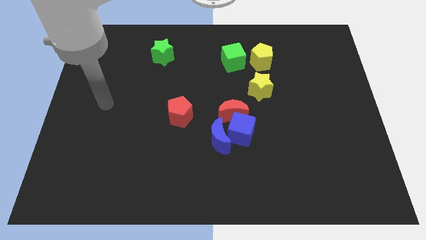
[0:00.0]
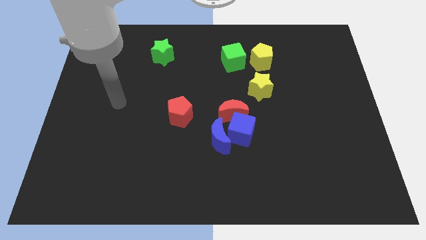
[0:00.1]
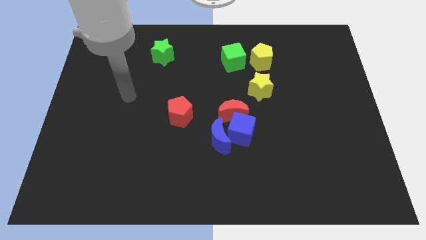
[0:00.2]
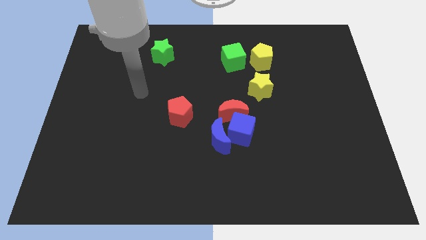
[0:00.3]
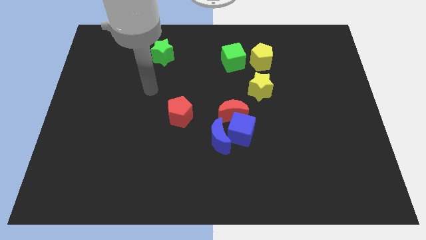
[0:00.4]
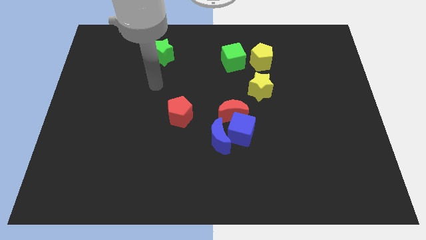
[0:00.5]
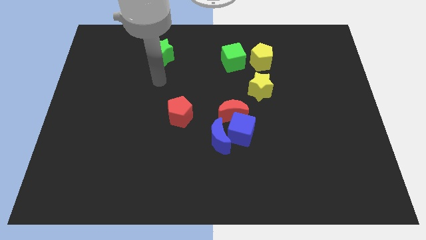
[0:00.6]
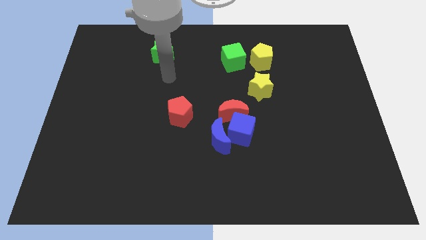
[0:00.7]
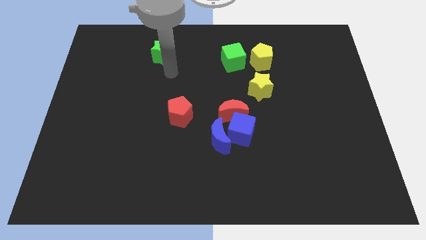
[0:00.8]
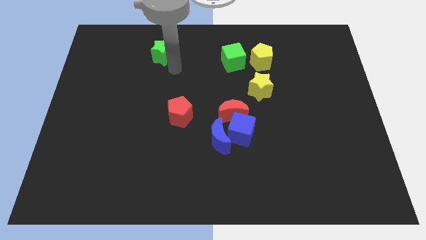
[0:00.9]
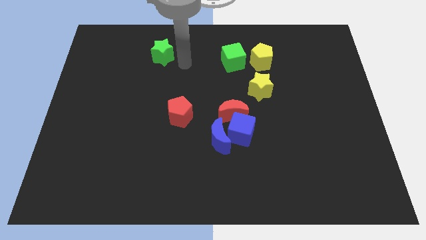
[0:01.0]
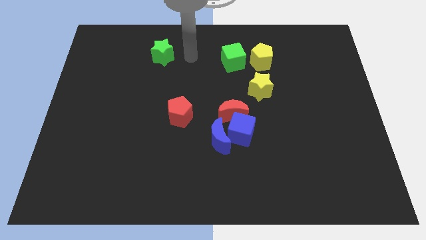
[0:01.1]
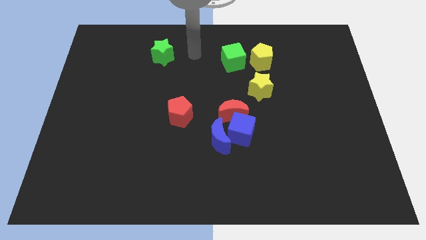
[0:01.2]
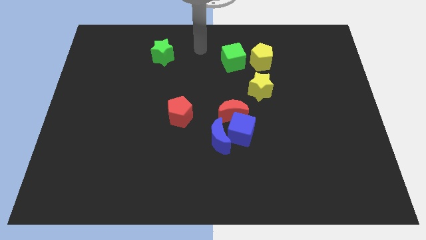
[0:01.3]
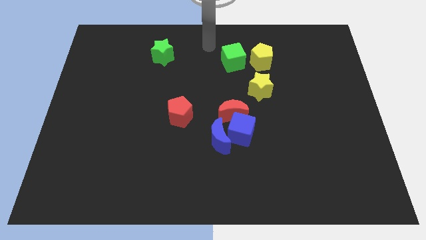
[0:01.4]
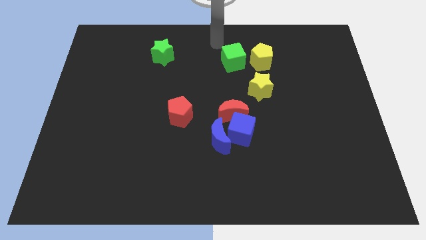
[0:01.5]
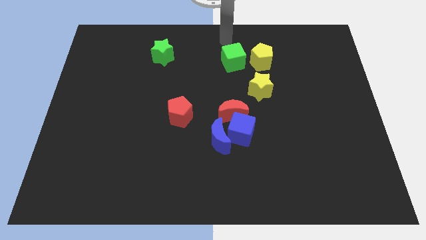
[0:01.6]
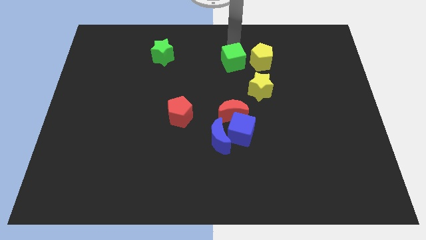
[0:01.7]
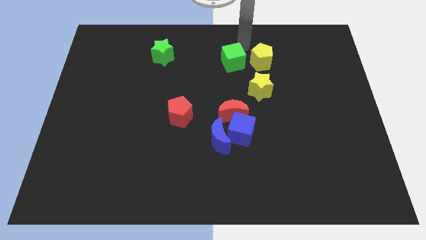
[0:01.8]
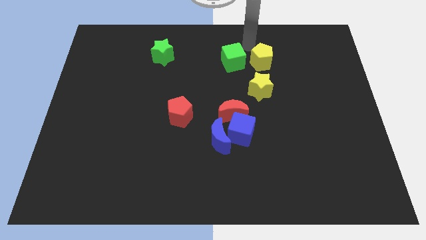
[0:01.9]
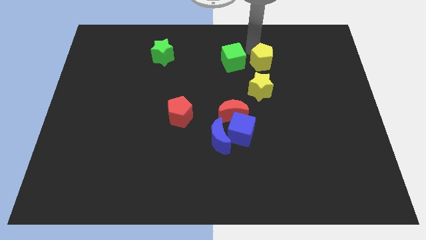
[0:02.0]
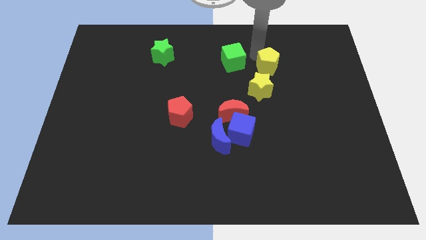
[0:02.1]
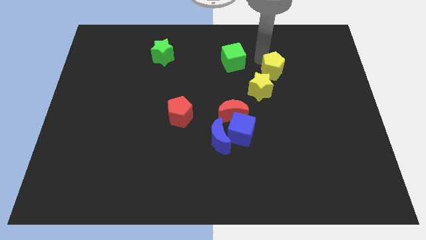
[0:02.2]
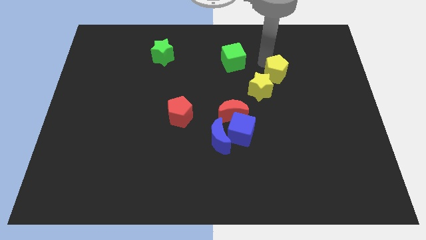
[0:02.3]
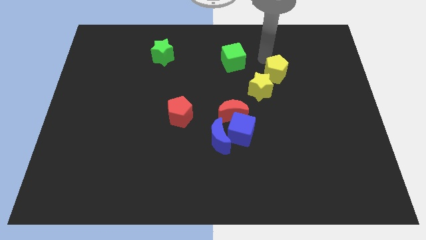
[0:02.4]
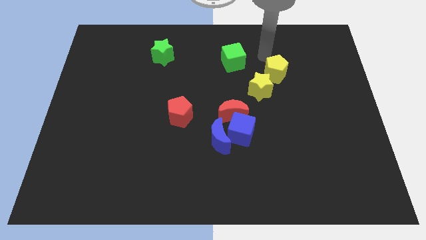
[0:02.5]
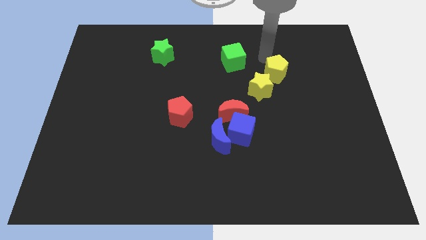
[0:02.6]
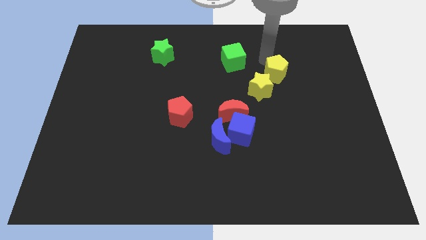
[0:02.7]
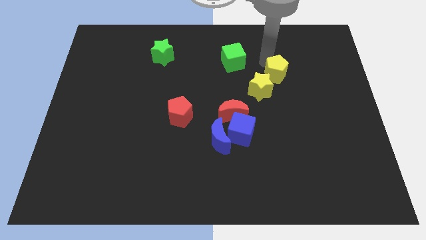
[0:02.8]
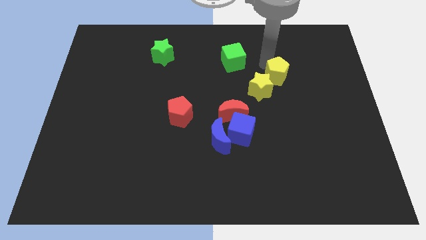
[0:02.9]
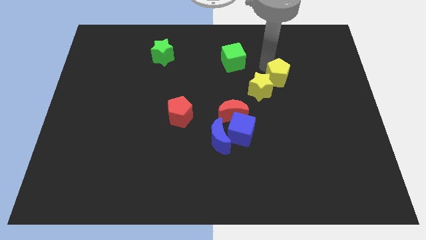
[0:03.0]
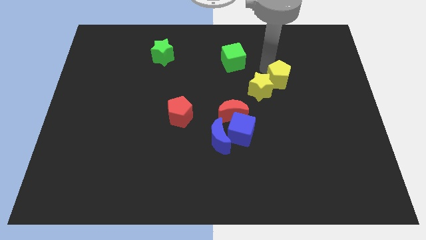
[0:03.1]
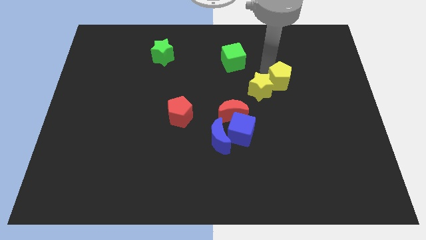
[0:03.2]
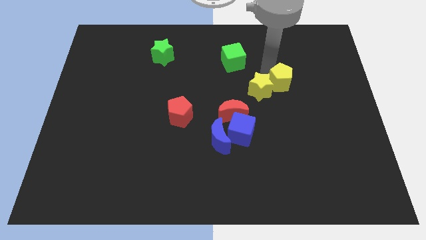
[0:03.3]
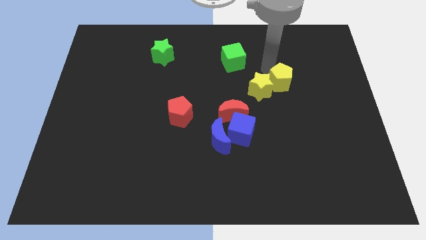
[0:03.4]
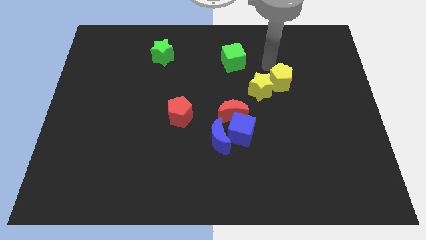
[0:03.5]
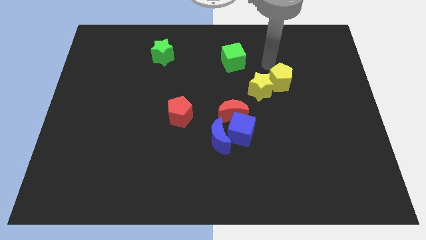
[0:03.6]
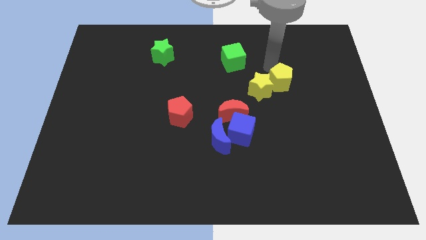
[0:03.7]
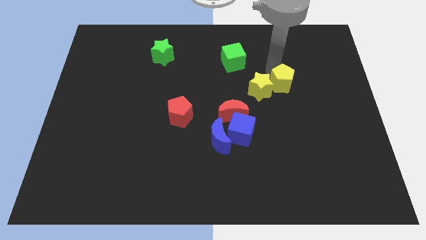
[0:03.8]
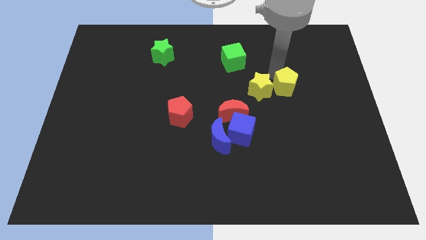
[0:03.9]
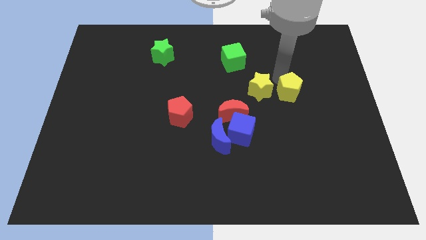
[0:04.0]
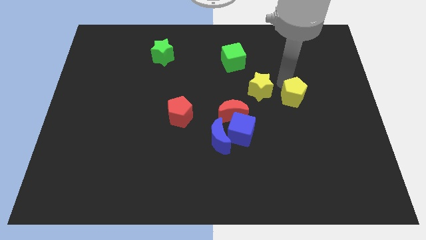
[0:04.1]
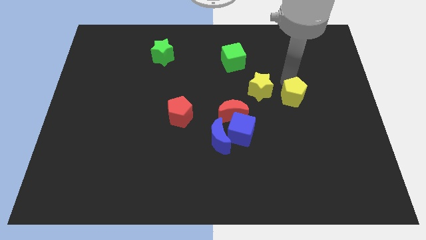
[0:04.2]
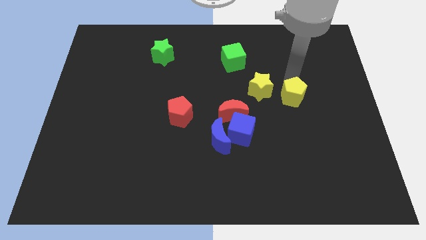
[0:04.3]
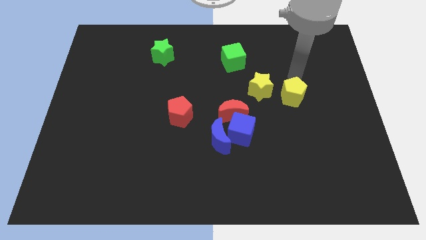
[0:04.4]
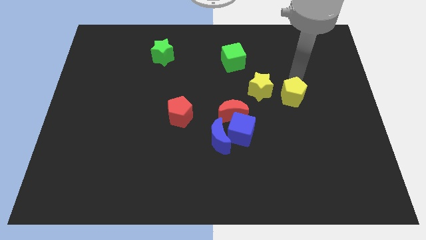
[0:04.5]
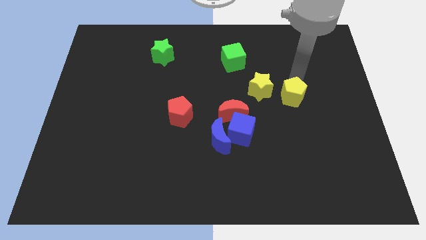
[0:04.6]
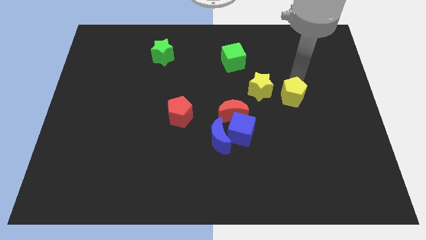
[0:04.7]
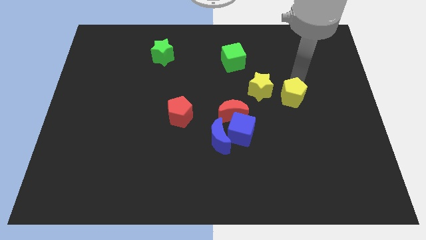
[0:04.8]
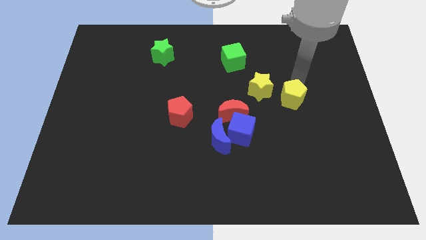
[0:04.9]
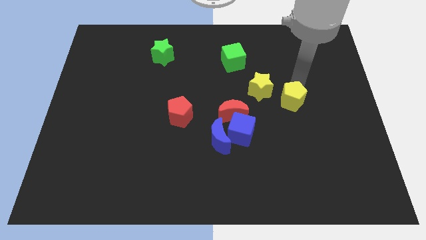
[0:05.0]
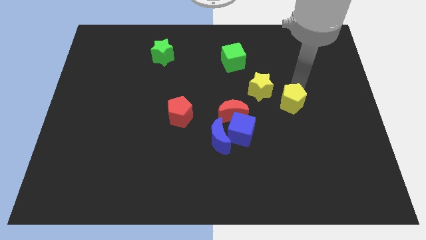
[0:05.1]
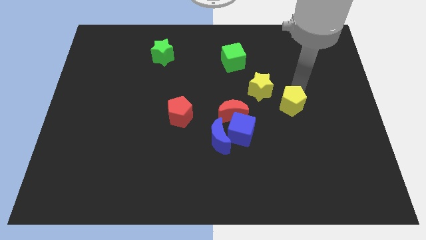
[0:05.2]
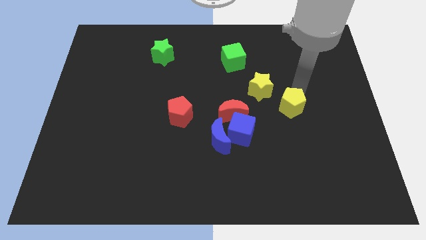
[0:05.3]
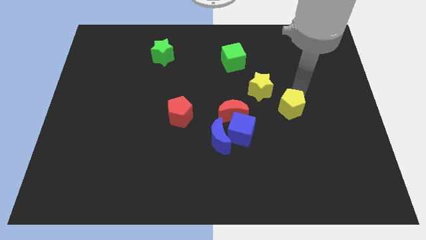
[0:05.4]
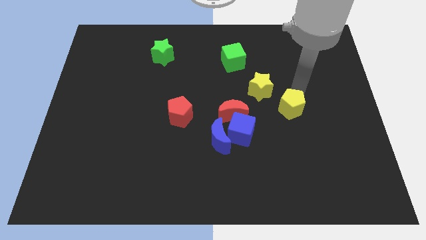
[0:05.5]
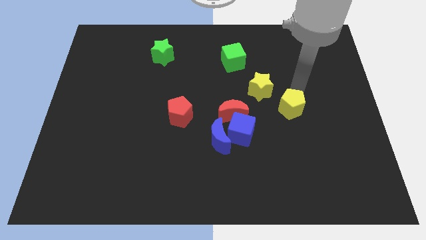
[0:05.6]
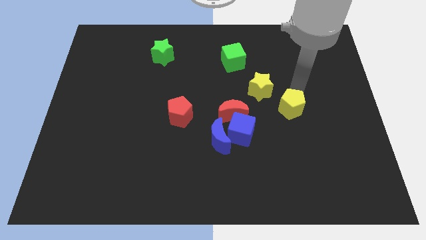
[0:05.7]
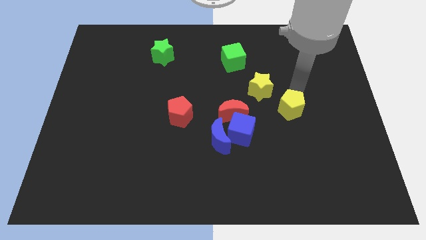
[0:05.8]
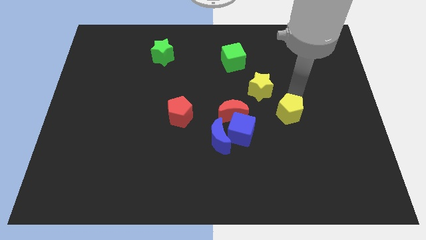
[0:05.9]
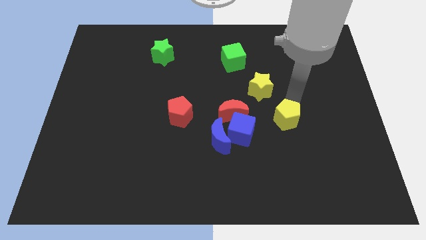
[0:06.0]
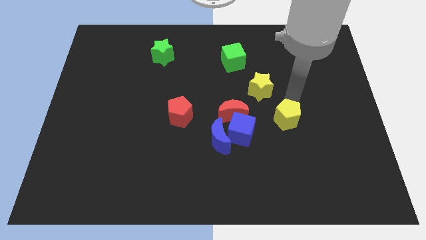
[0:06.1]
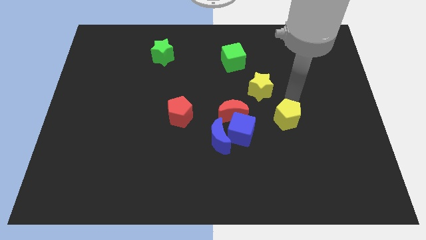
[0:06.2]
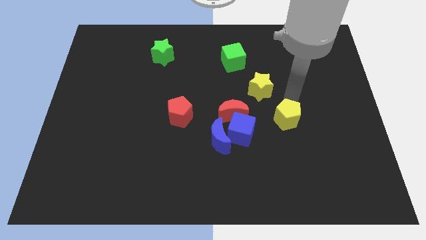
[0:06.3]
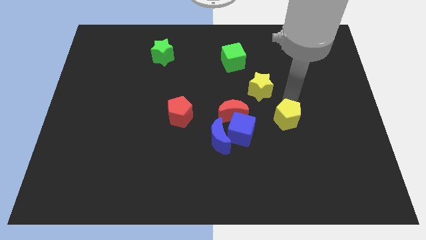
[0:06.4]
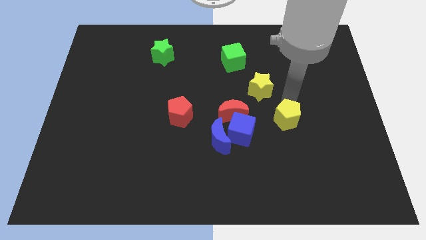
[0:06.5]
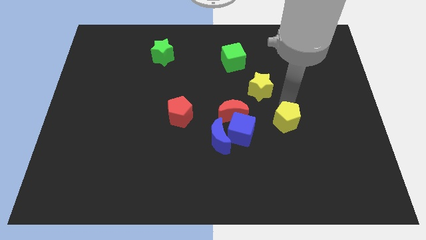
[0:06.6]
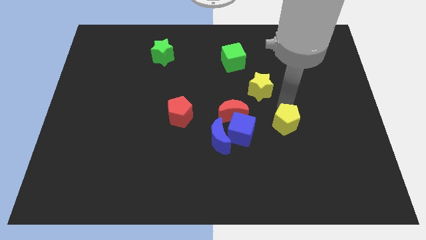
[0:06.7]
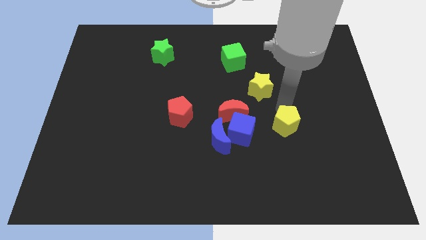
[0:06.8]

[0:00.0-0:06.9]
slide the yellow pentagon down

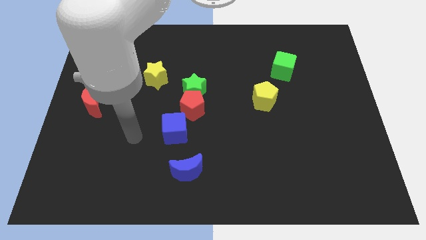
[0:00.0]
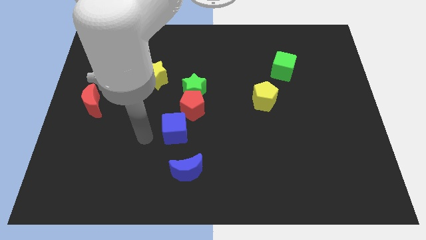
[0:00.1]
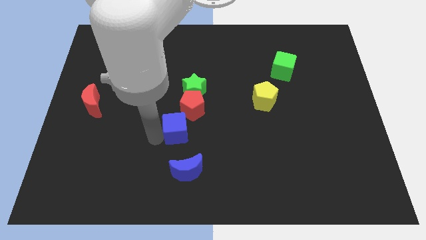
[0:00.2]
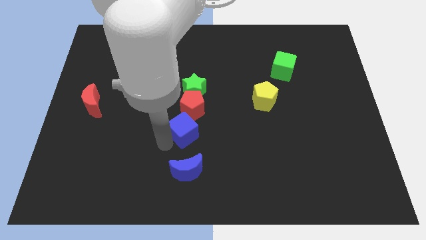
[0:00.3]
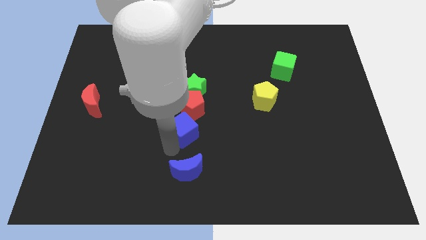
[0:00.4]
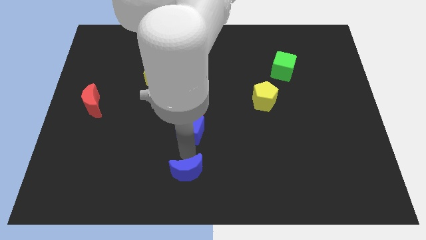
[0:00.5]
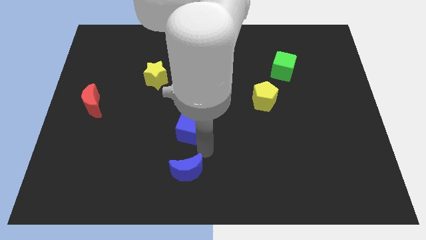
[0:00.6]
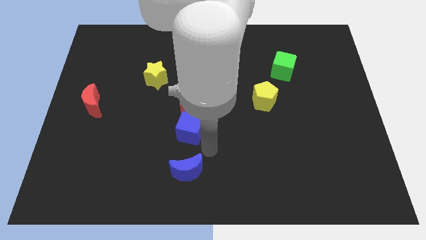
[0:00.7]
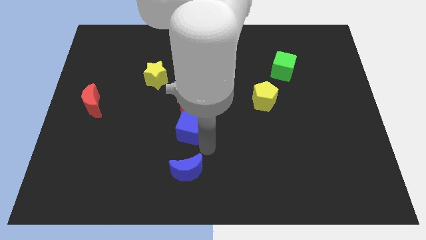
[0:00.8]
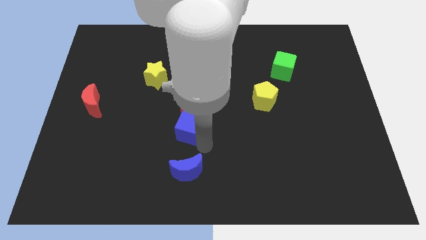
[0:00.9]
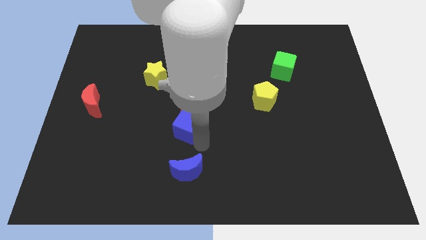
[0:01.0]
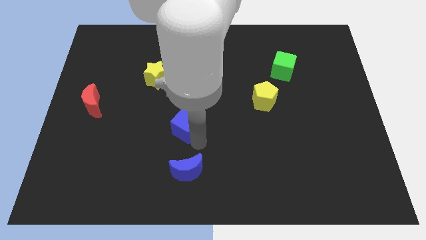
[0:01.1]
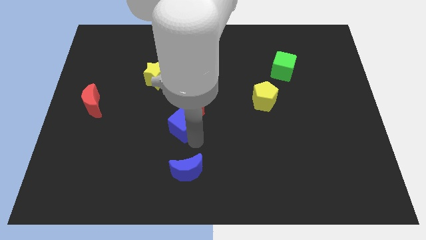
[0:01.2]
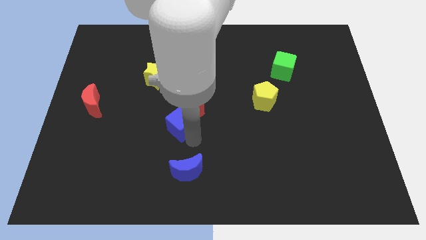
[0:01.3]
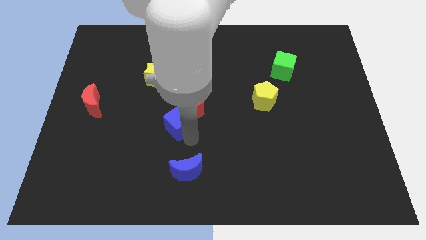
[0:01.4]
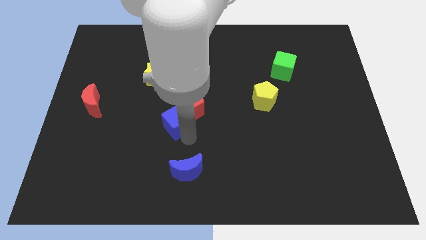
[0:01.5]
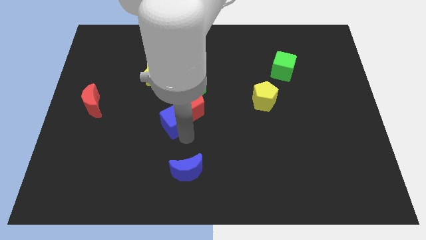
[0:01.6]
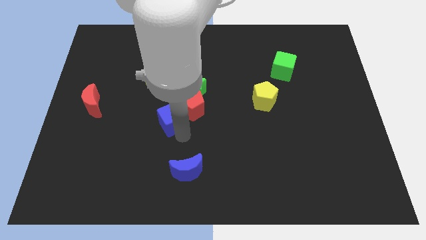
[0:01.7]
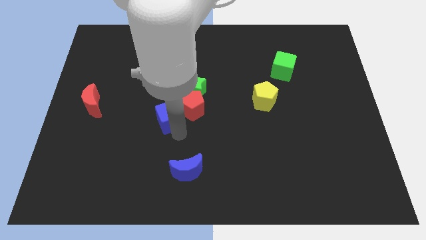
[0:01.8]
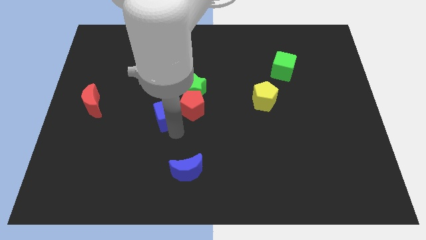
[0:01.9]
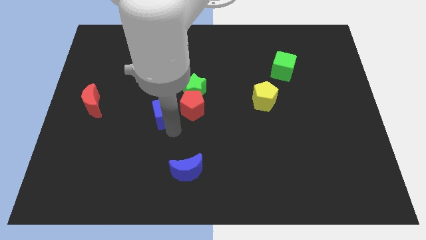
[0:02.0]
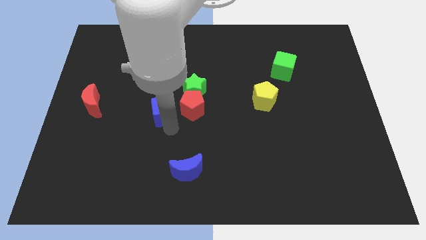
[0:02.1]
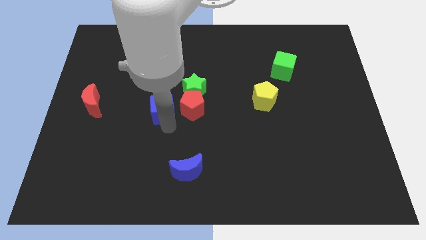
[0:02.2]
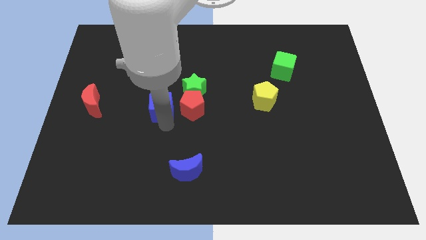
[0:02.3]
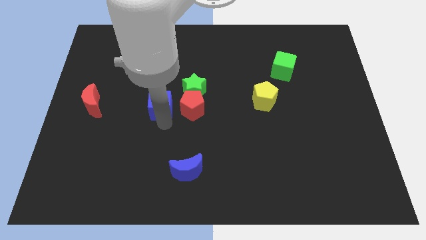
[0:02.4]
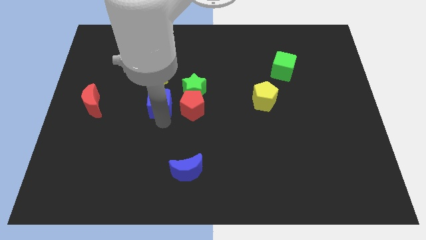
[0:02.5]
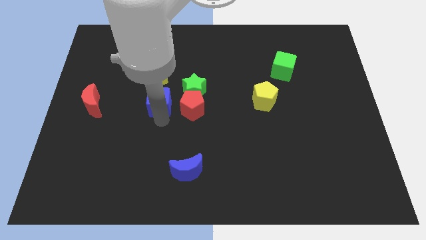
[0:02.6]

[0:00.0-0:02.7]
move the blue cube a bit up
